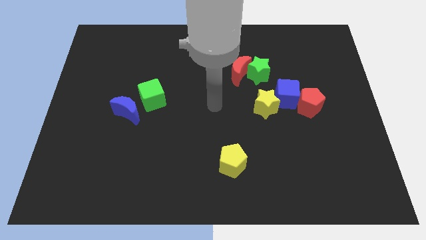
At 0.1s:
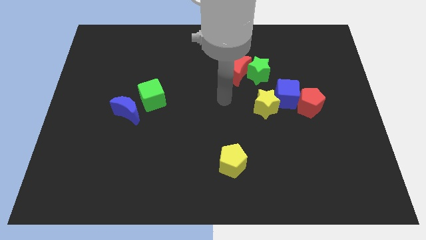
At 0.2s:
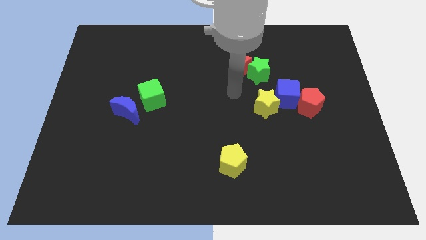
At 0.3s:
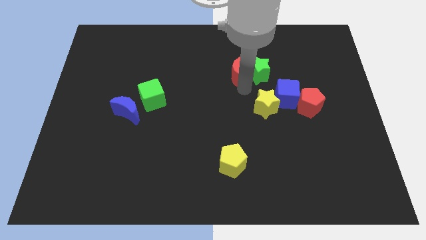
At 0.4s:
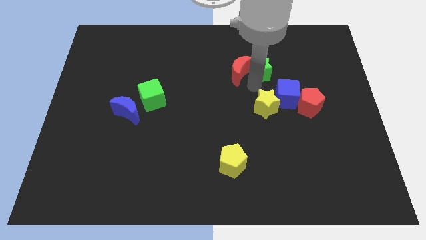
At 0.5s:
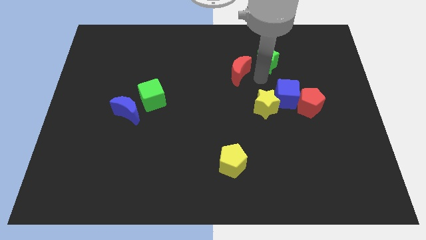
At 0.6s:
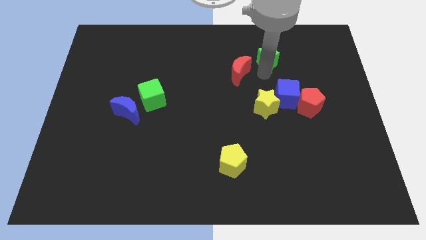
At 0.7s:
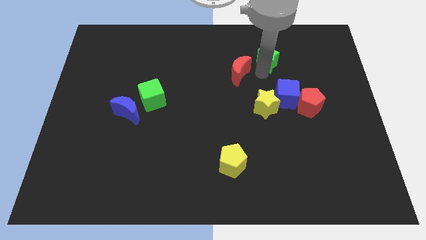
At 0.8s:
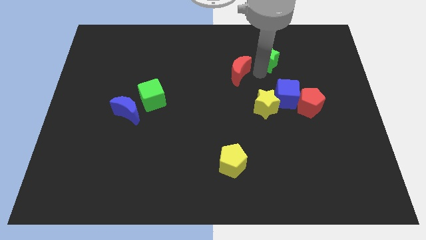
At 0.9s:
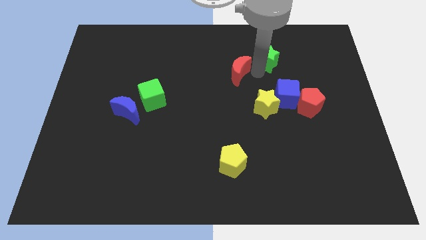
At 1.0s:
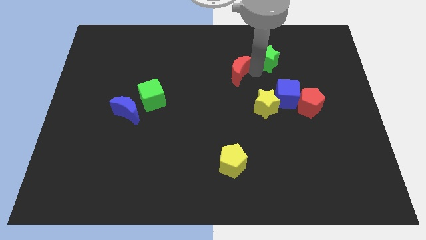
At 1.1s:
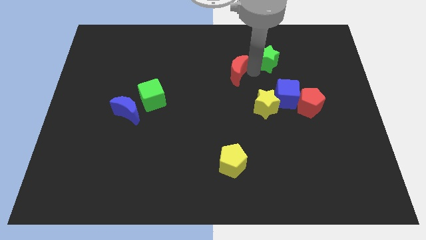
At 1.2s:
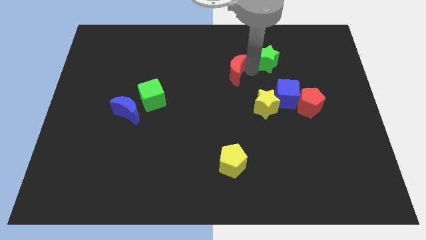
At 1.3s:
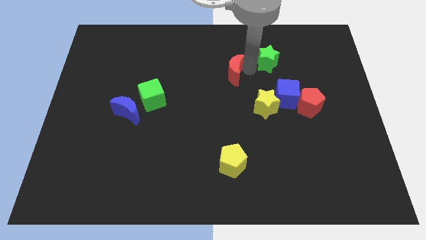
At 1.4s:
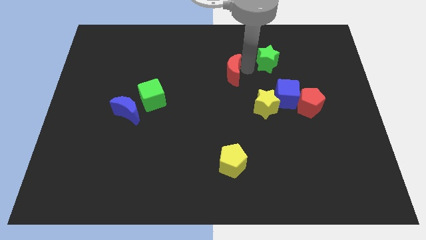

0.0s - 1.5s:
separate the red moon from the green star

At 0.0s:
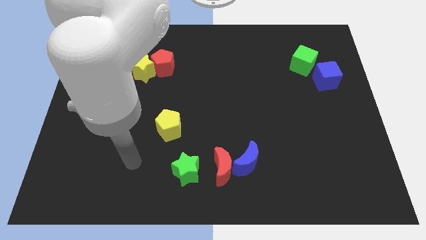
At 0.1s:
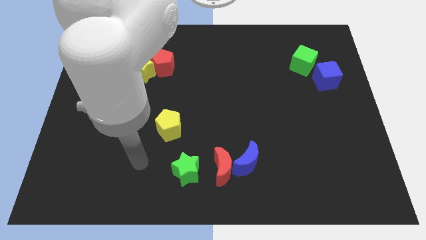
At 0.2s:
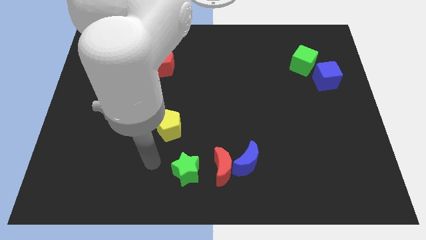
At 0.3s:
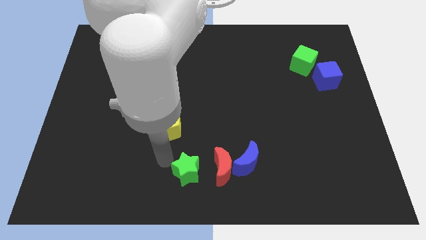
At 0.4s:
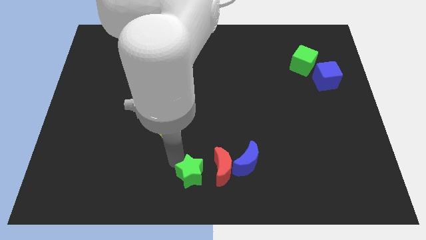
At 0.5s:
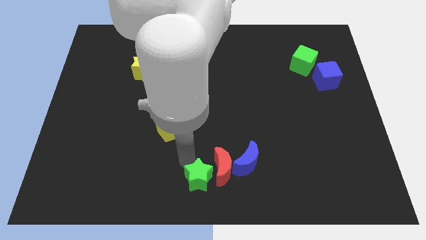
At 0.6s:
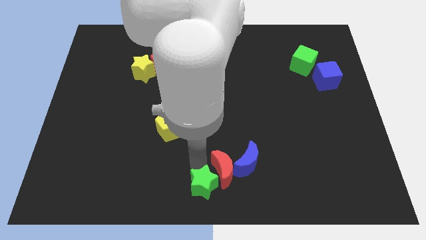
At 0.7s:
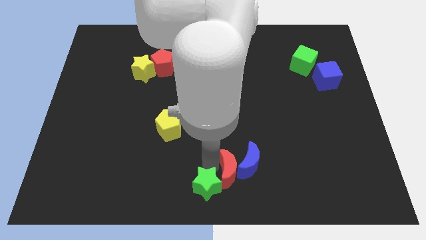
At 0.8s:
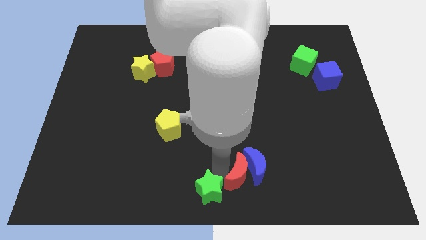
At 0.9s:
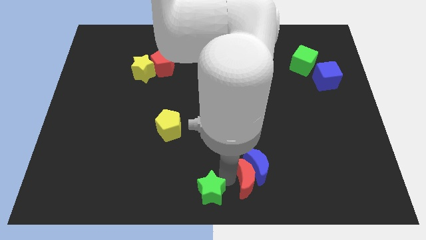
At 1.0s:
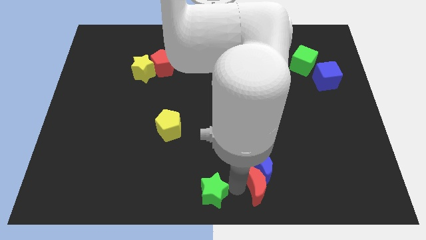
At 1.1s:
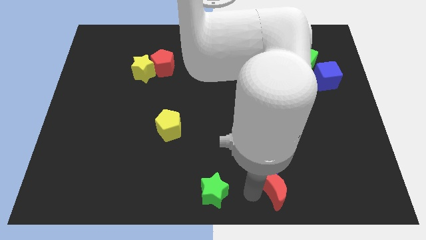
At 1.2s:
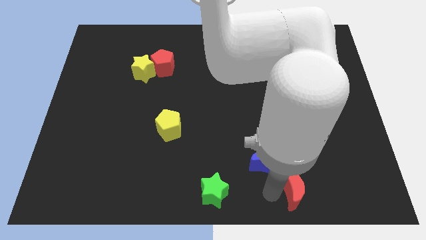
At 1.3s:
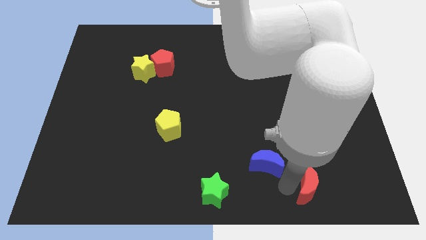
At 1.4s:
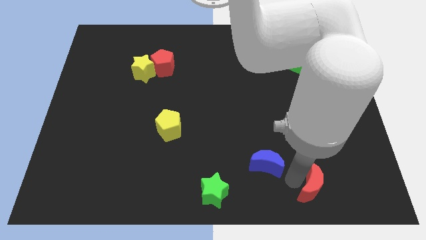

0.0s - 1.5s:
pull the blue moon apart from the red moon

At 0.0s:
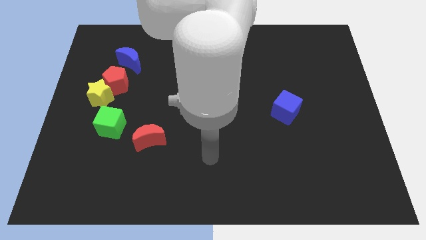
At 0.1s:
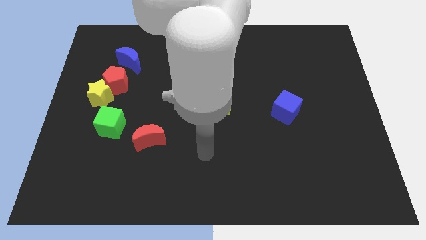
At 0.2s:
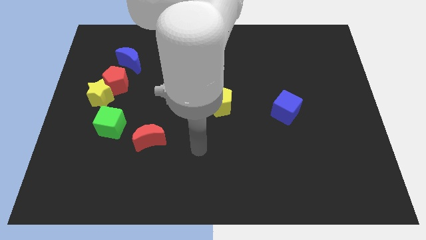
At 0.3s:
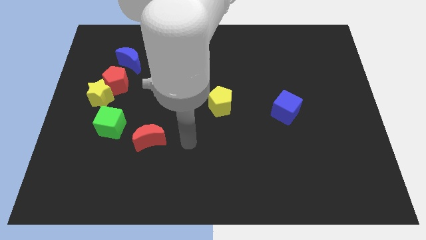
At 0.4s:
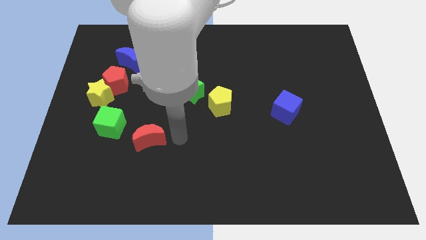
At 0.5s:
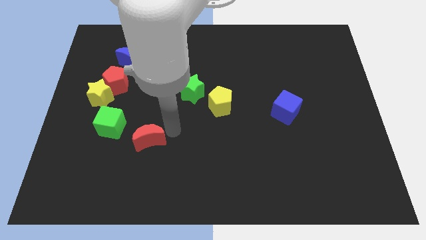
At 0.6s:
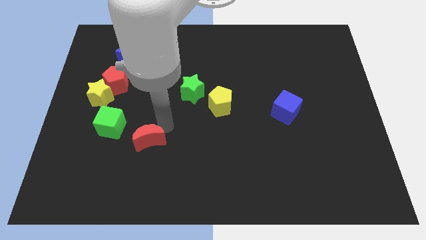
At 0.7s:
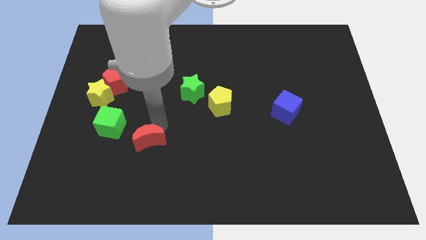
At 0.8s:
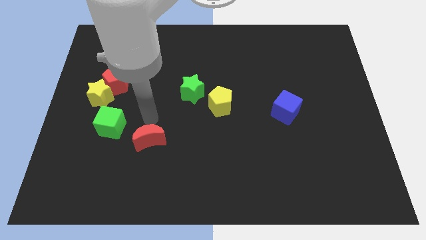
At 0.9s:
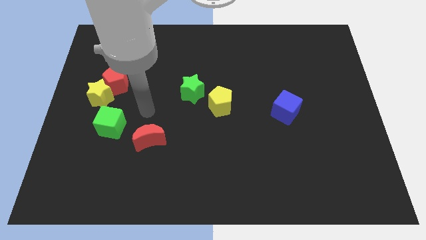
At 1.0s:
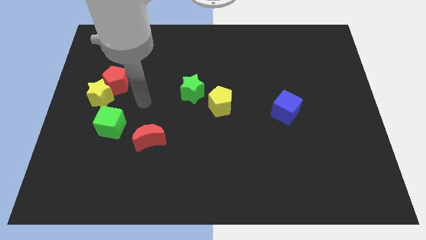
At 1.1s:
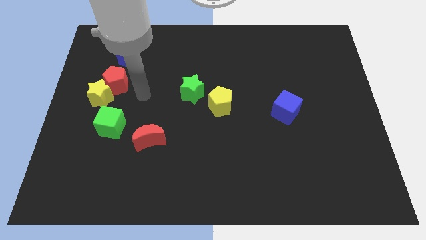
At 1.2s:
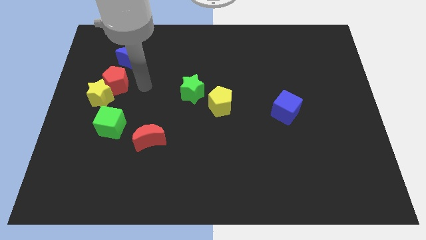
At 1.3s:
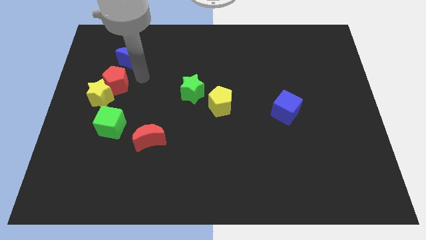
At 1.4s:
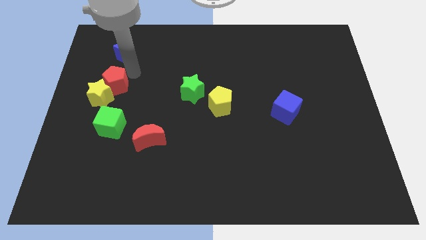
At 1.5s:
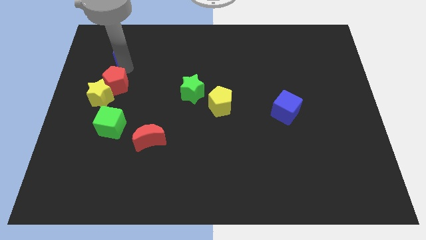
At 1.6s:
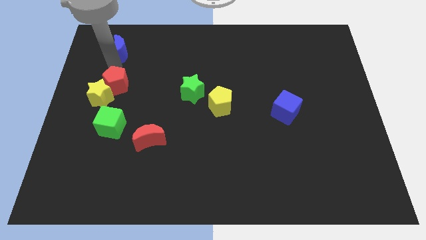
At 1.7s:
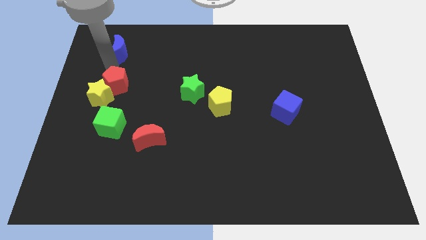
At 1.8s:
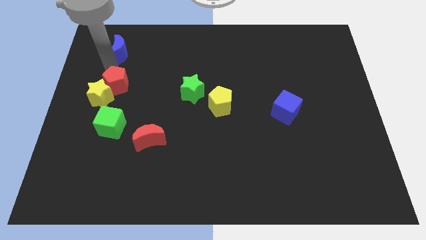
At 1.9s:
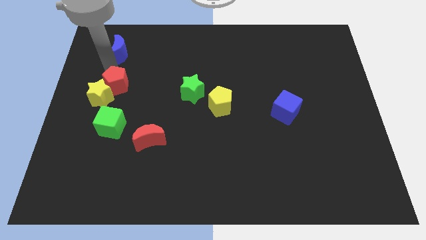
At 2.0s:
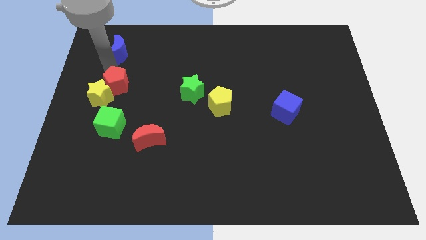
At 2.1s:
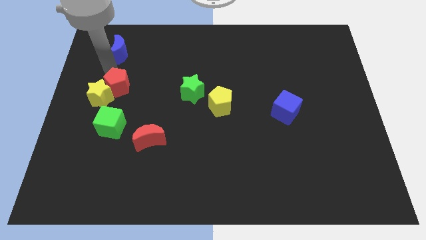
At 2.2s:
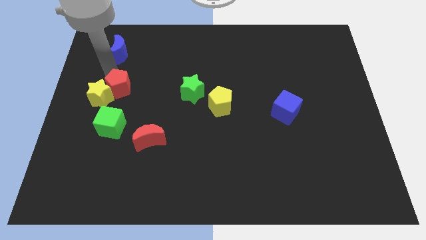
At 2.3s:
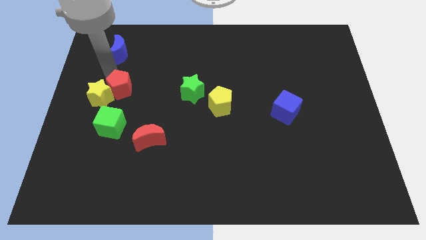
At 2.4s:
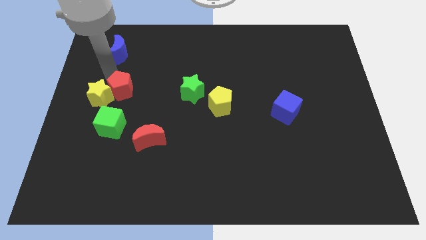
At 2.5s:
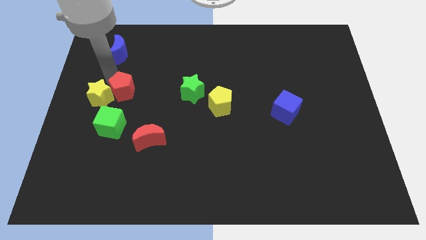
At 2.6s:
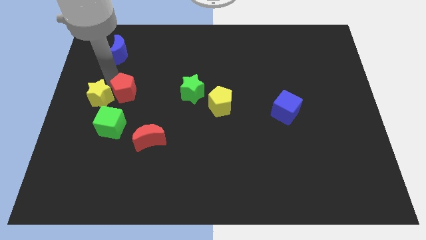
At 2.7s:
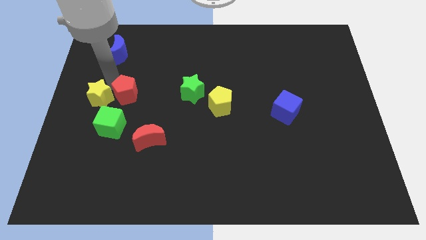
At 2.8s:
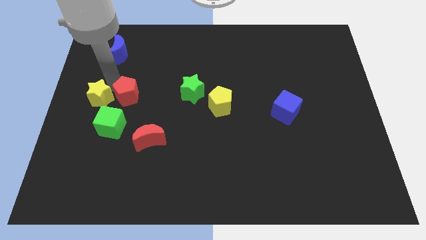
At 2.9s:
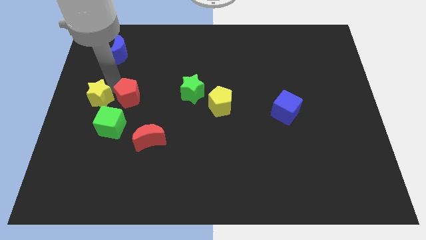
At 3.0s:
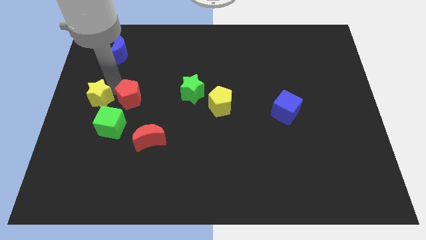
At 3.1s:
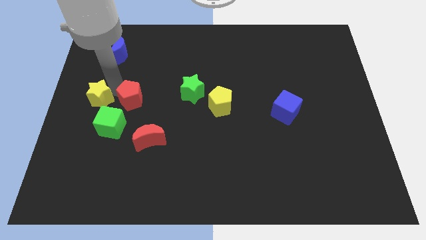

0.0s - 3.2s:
separate the red pentagon from the yellow star and blue moon

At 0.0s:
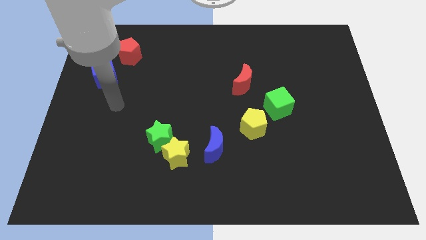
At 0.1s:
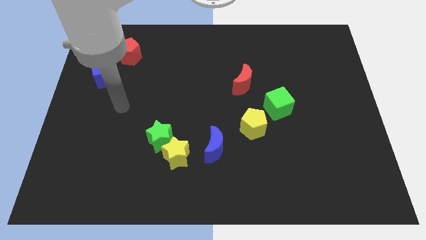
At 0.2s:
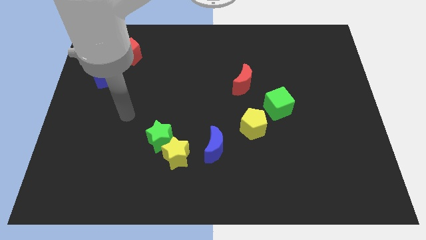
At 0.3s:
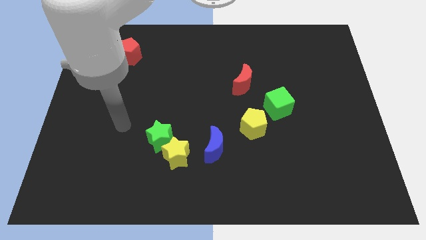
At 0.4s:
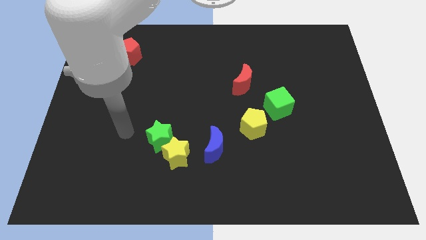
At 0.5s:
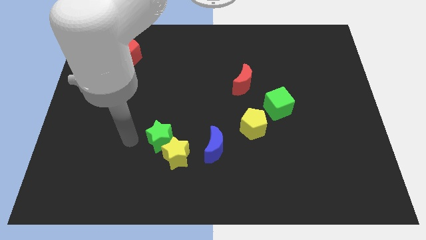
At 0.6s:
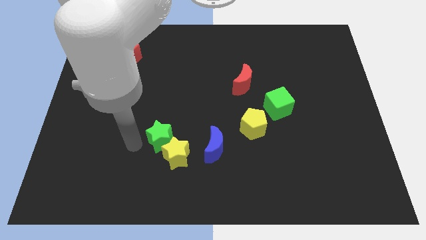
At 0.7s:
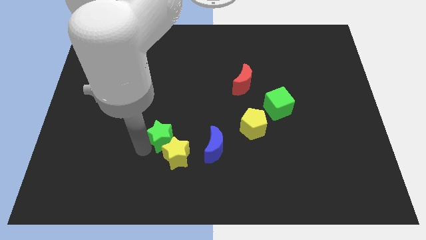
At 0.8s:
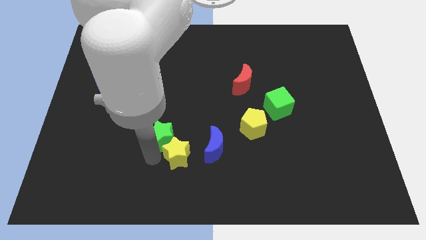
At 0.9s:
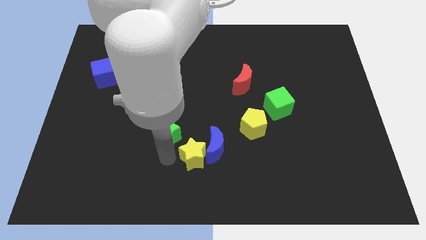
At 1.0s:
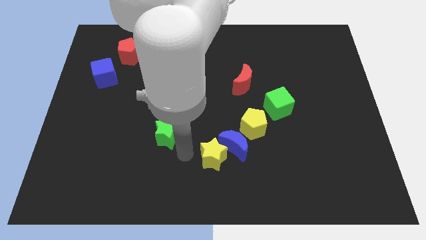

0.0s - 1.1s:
move the green star away from the yellow star

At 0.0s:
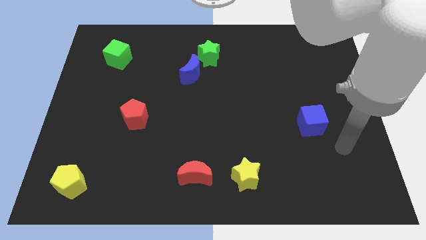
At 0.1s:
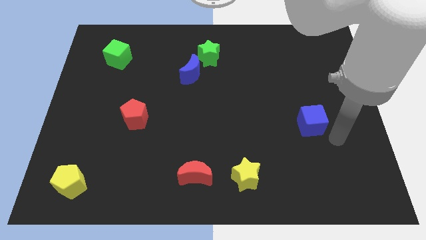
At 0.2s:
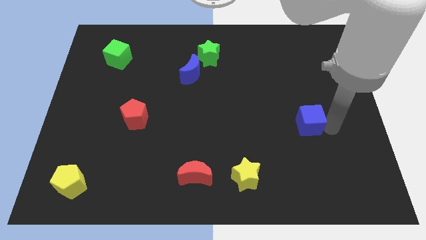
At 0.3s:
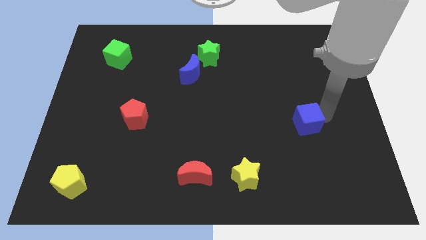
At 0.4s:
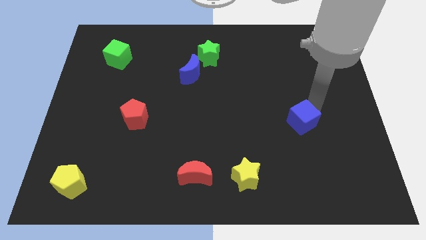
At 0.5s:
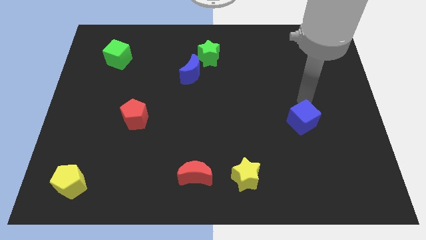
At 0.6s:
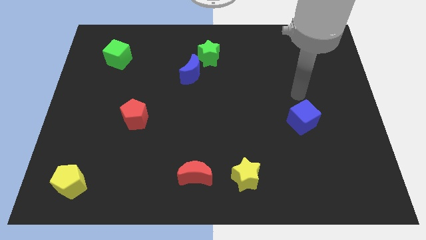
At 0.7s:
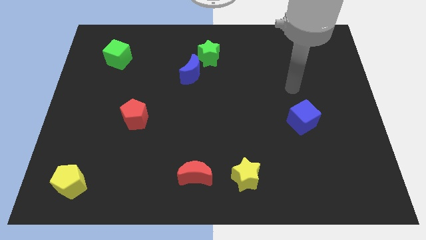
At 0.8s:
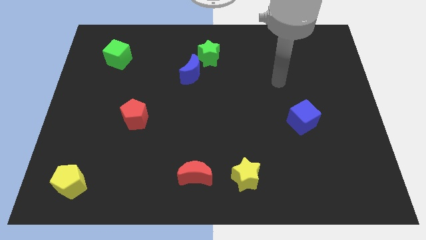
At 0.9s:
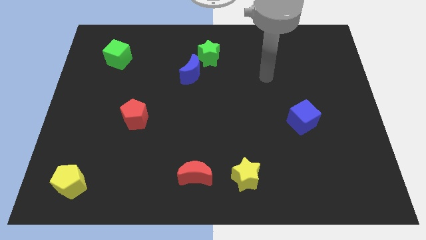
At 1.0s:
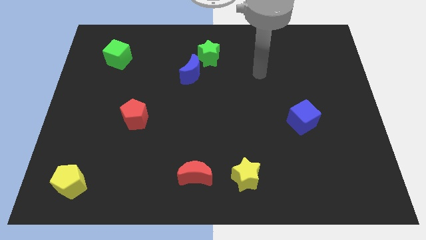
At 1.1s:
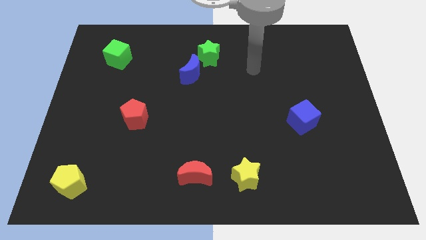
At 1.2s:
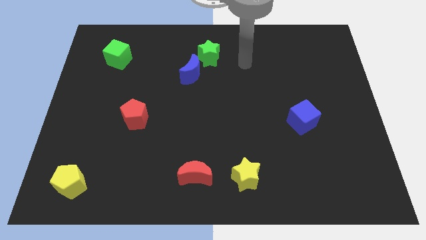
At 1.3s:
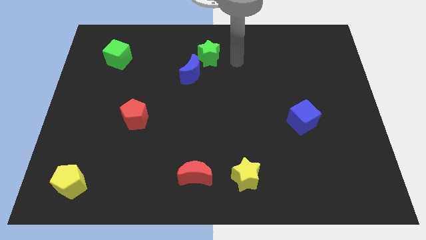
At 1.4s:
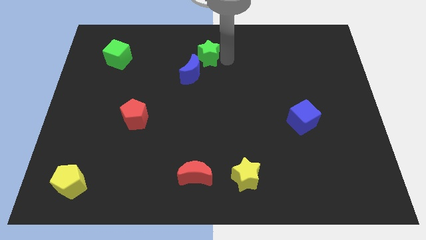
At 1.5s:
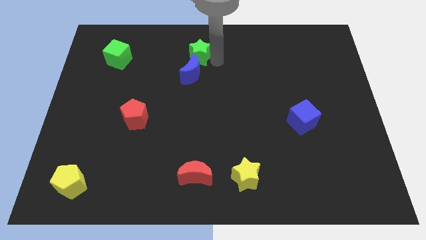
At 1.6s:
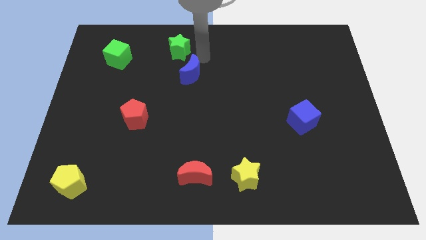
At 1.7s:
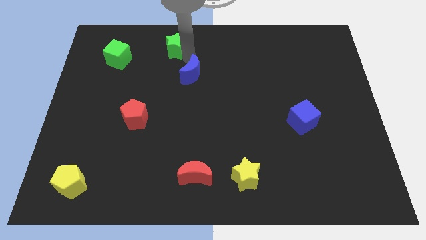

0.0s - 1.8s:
pull the blue moon apart from the green star

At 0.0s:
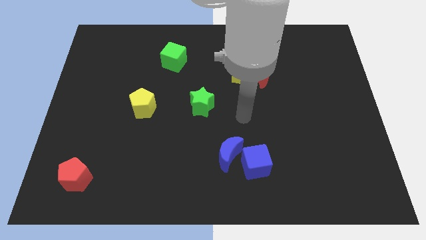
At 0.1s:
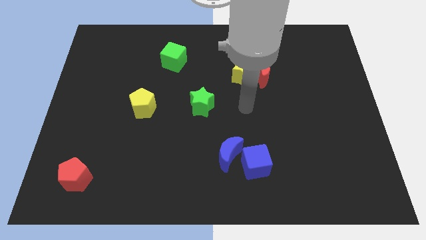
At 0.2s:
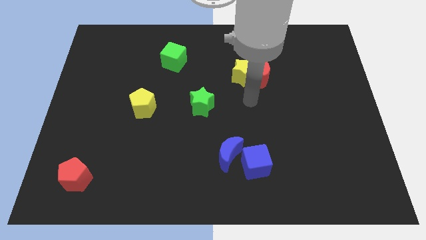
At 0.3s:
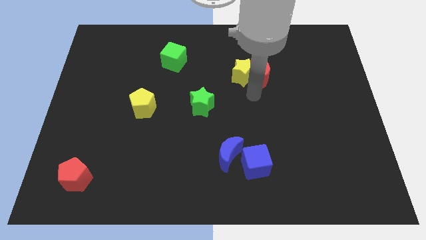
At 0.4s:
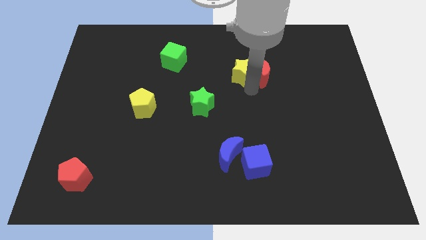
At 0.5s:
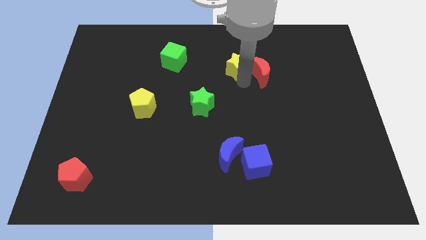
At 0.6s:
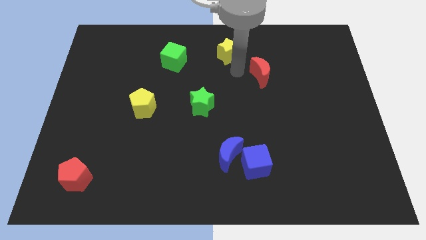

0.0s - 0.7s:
move the red moon away from the yellow star
